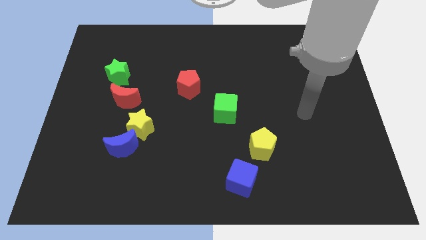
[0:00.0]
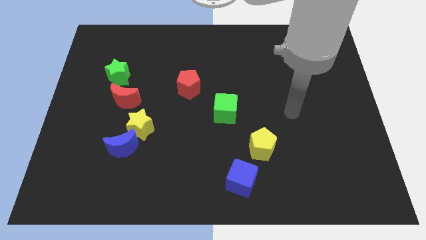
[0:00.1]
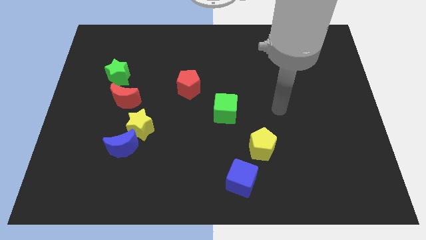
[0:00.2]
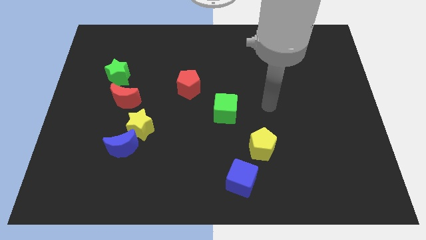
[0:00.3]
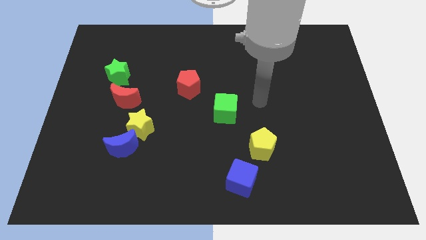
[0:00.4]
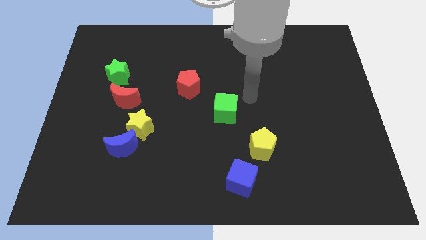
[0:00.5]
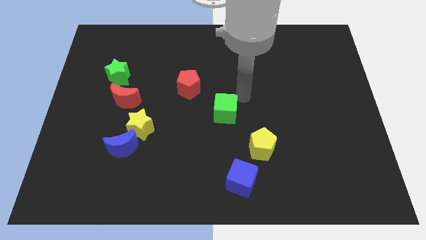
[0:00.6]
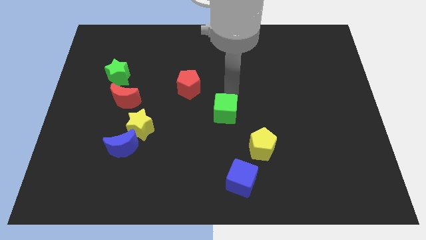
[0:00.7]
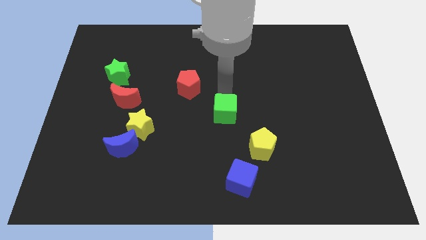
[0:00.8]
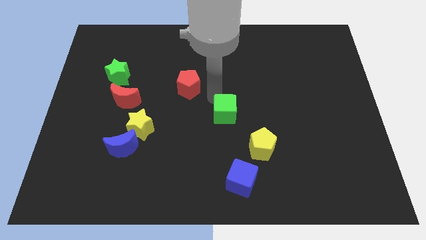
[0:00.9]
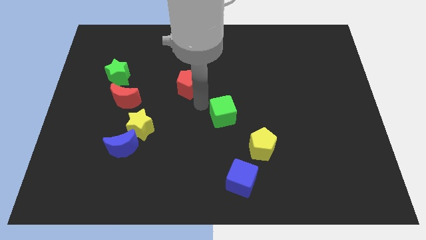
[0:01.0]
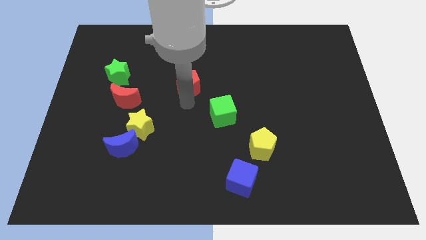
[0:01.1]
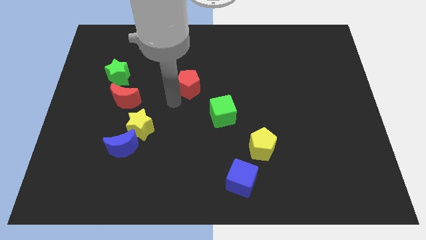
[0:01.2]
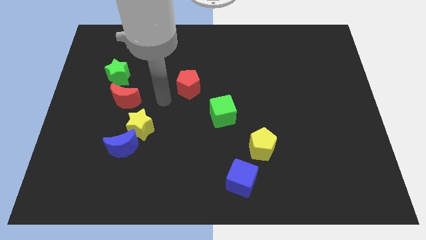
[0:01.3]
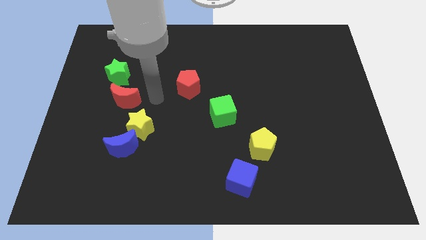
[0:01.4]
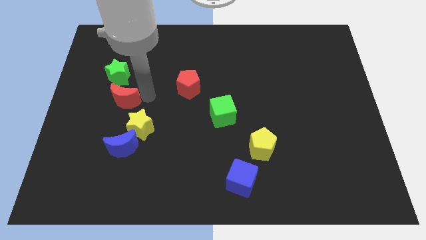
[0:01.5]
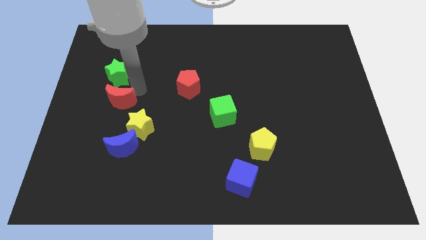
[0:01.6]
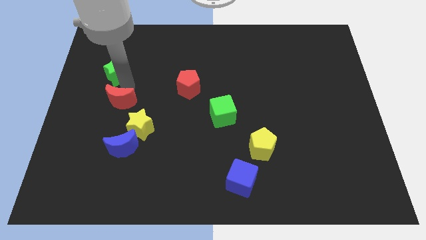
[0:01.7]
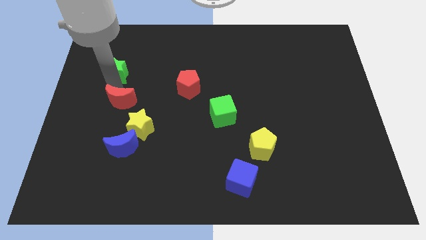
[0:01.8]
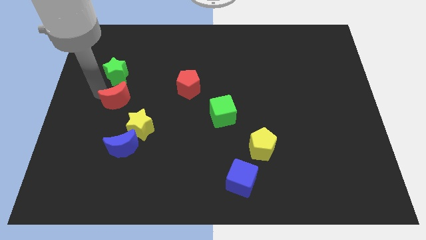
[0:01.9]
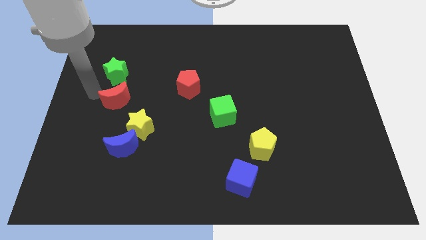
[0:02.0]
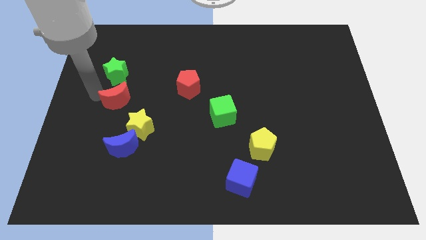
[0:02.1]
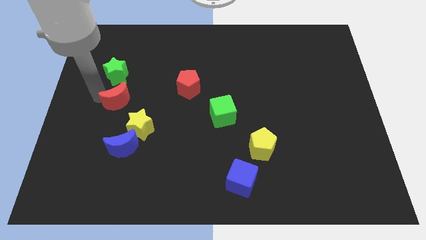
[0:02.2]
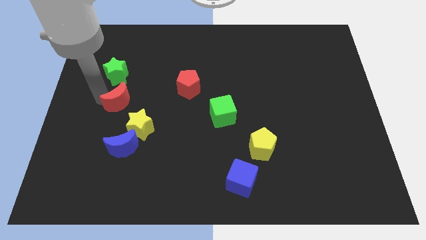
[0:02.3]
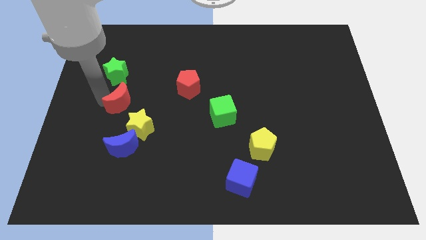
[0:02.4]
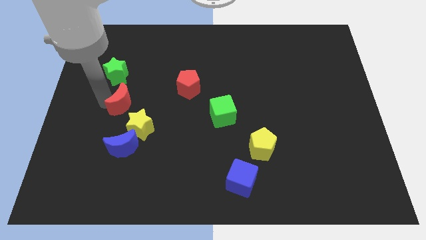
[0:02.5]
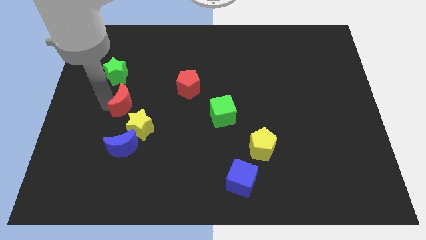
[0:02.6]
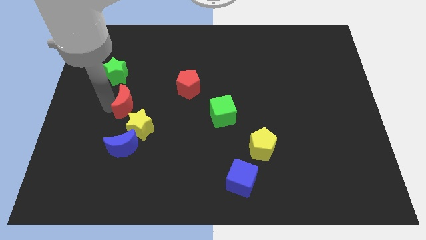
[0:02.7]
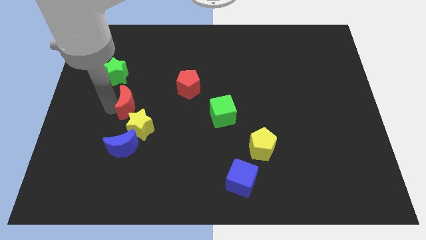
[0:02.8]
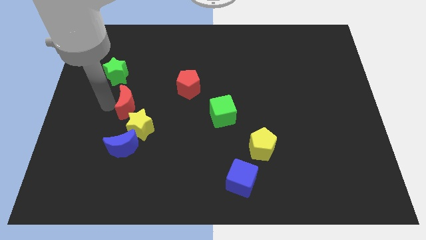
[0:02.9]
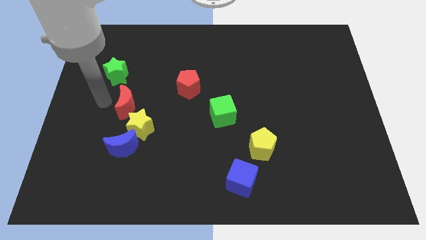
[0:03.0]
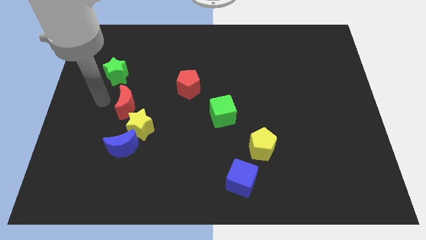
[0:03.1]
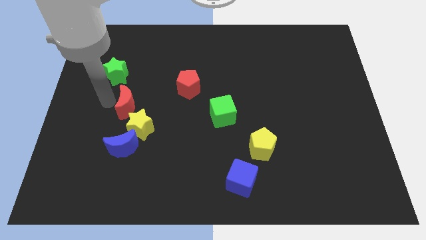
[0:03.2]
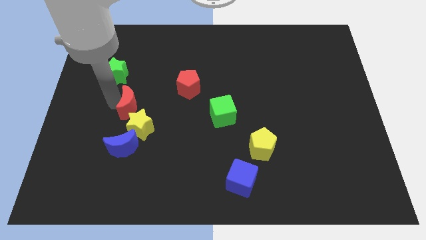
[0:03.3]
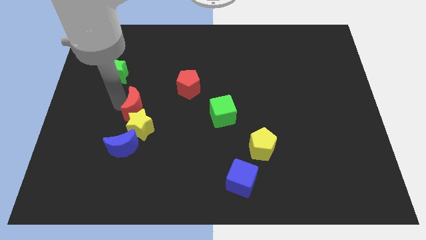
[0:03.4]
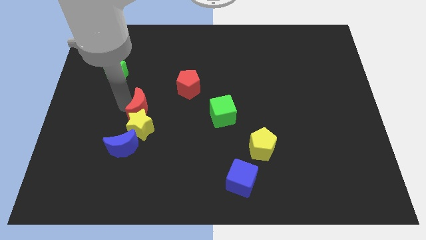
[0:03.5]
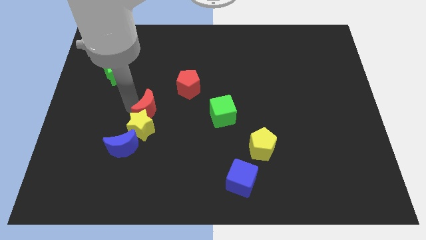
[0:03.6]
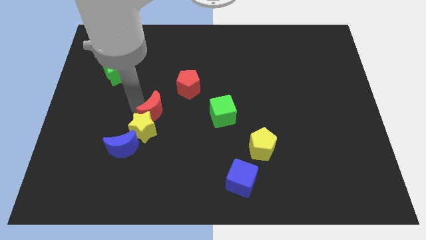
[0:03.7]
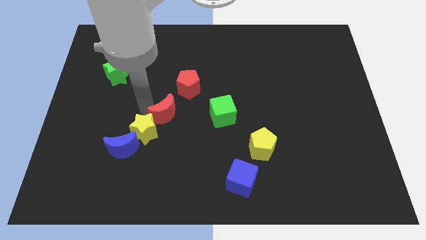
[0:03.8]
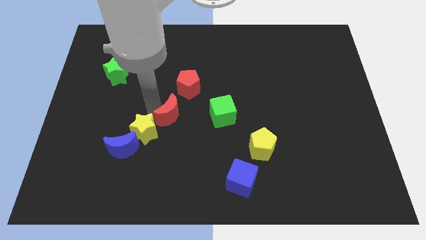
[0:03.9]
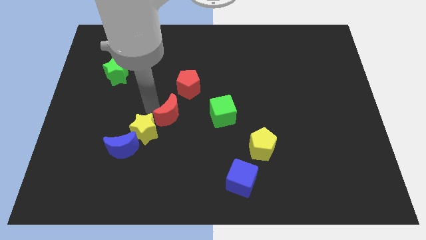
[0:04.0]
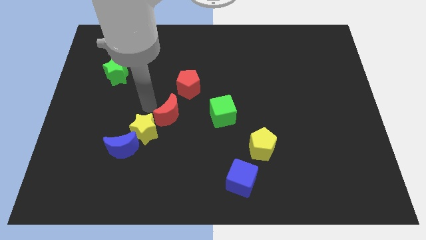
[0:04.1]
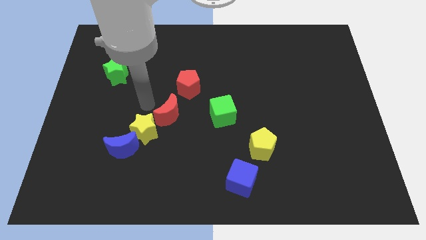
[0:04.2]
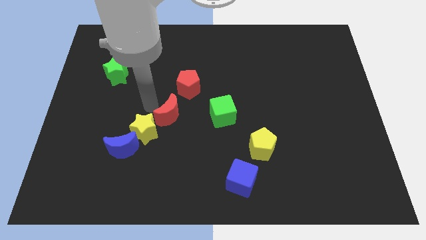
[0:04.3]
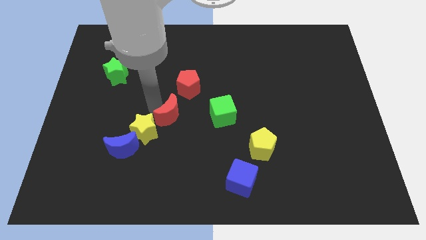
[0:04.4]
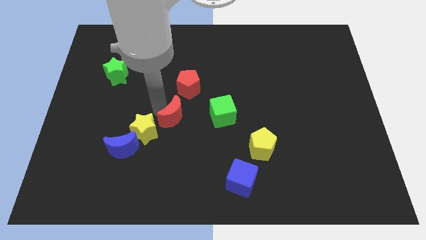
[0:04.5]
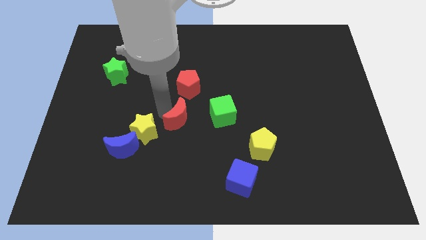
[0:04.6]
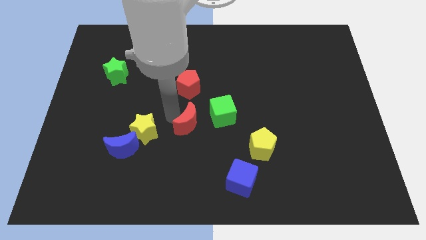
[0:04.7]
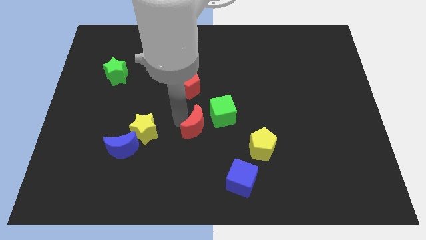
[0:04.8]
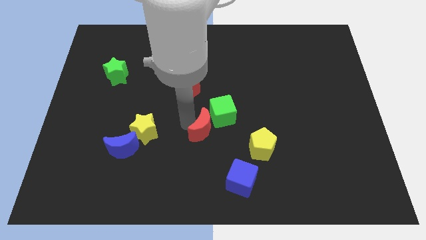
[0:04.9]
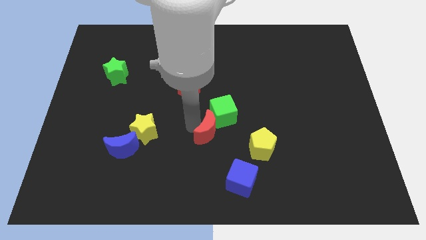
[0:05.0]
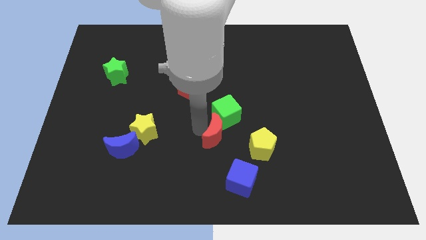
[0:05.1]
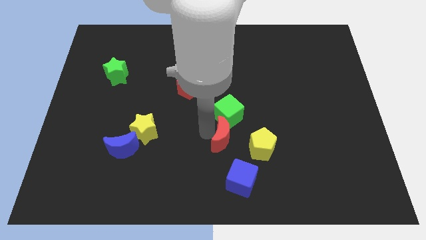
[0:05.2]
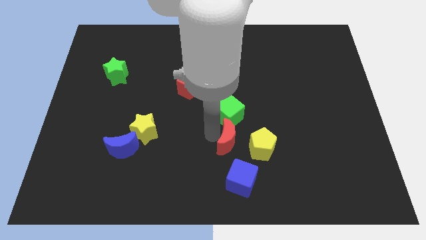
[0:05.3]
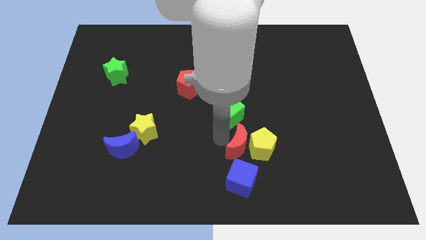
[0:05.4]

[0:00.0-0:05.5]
move the red moon to the yellow pentagon

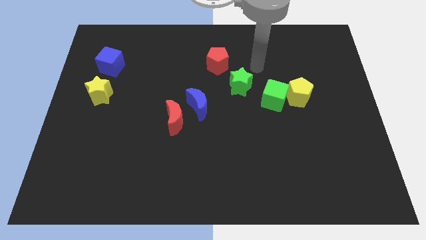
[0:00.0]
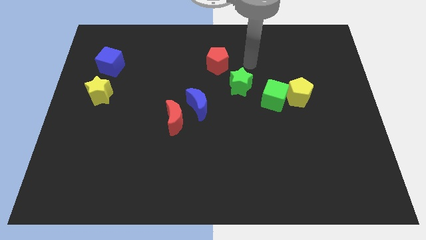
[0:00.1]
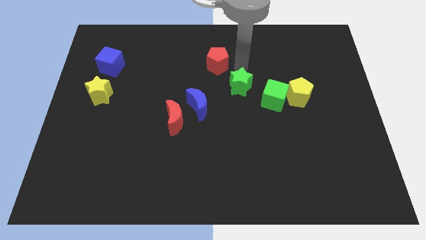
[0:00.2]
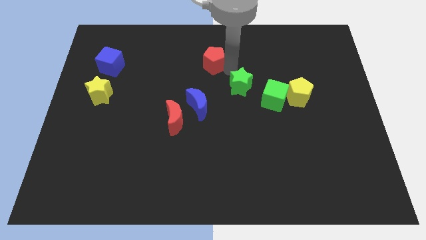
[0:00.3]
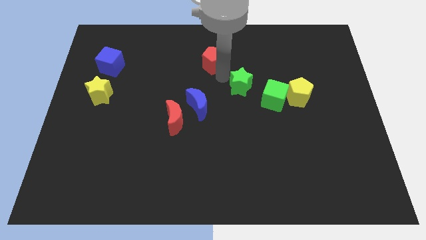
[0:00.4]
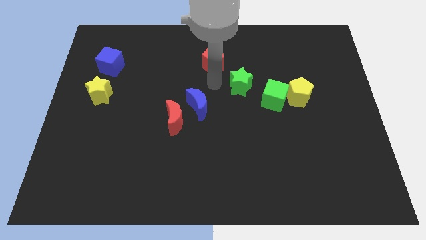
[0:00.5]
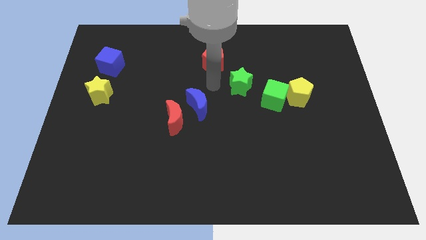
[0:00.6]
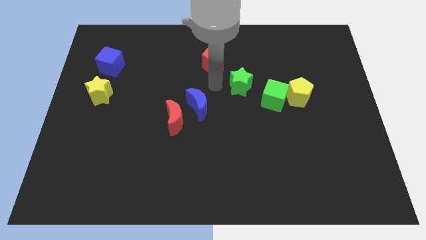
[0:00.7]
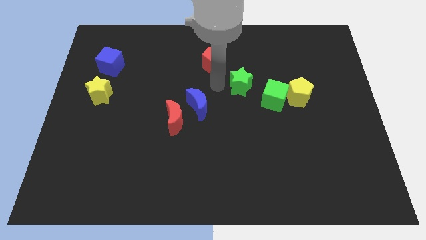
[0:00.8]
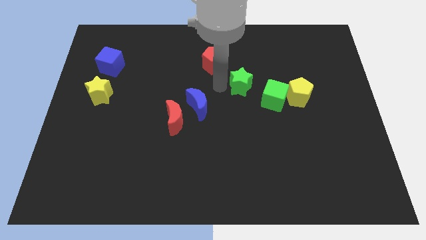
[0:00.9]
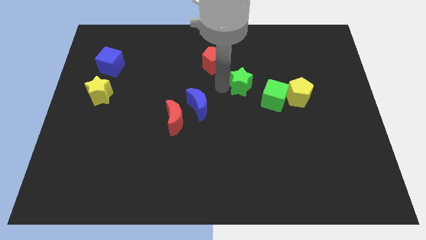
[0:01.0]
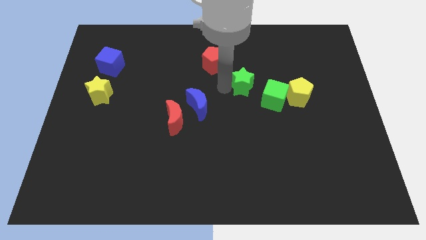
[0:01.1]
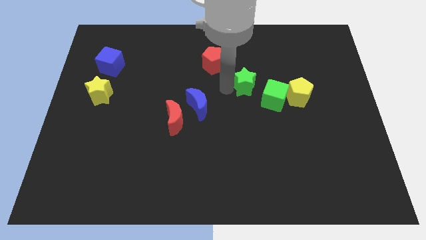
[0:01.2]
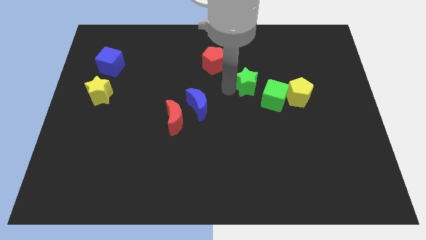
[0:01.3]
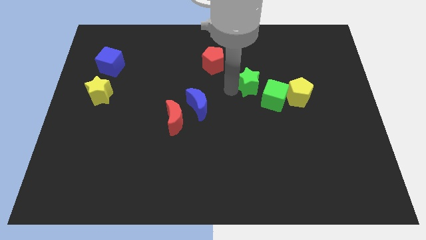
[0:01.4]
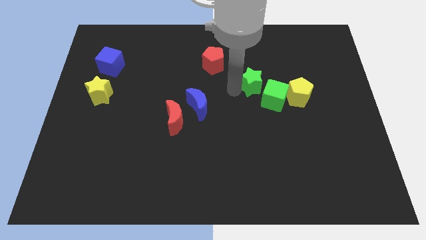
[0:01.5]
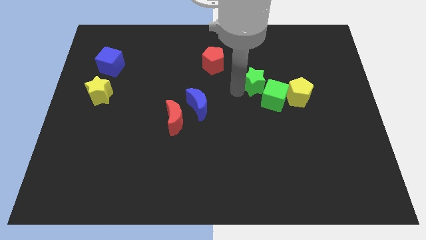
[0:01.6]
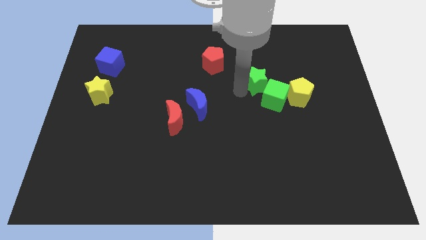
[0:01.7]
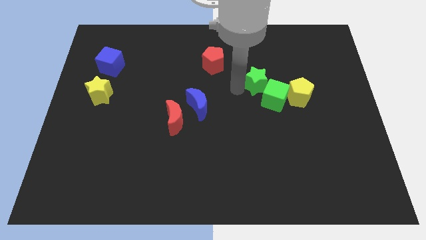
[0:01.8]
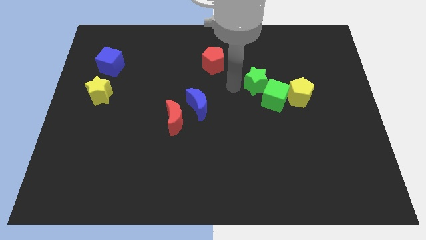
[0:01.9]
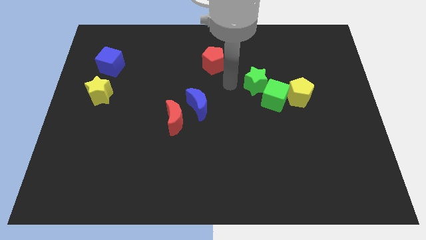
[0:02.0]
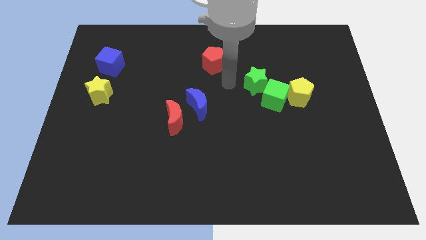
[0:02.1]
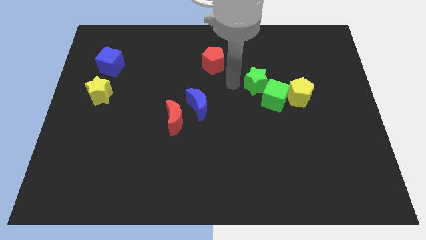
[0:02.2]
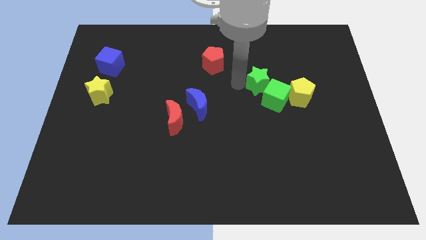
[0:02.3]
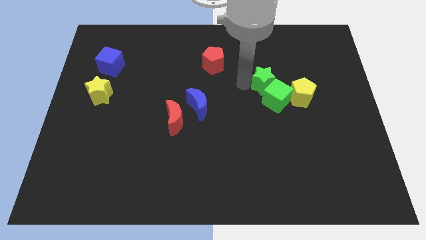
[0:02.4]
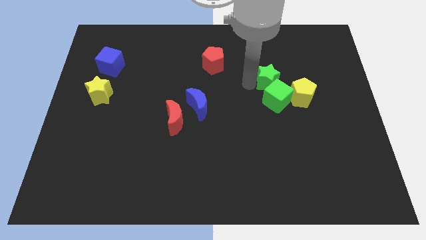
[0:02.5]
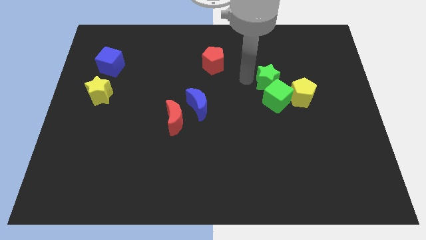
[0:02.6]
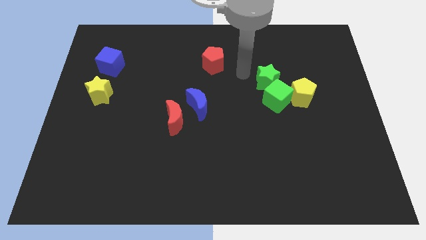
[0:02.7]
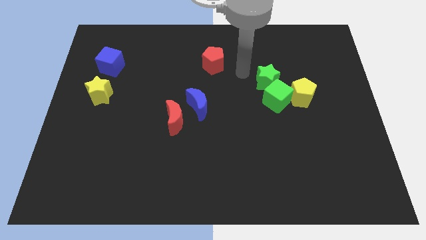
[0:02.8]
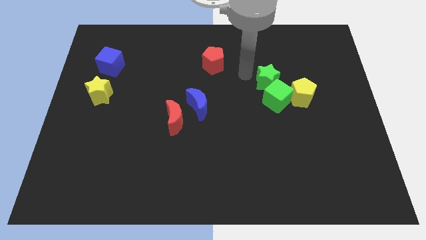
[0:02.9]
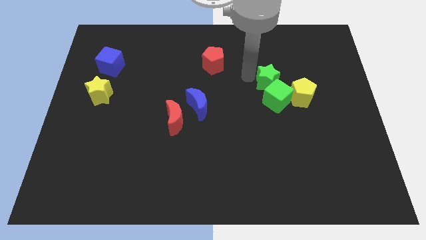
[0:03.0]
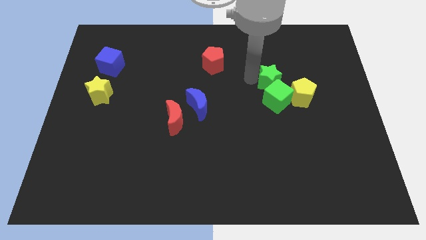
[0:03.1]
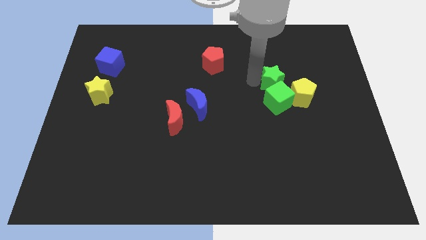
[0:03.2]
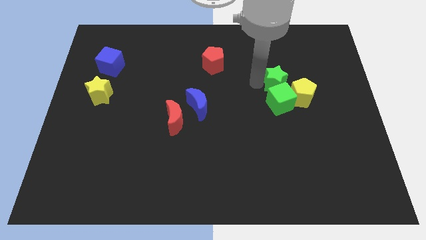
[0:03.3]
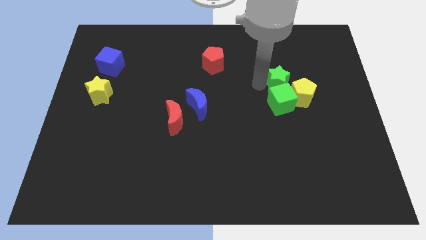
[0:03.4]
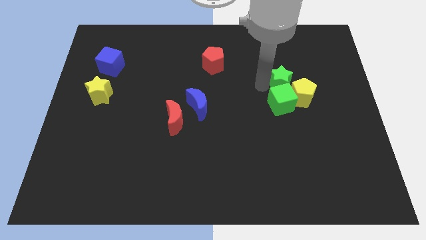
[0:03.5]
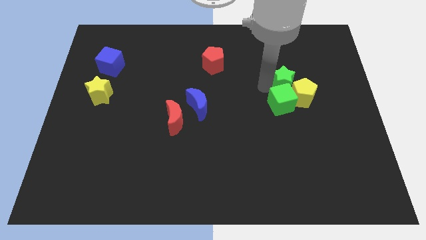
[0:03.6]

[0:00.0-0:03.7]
slide the green star towards the yellow pentagon
